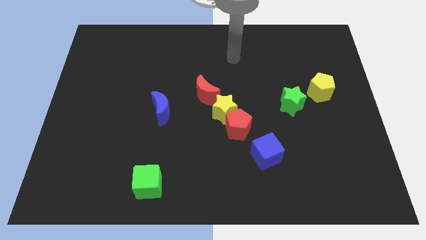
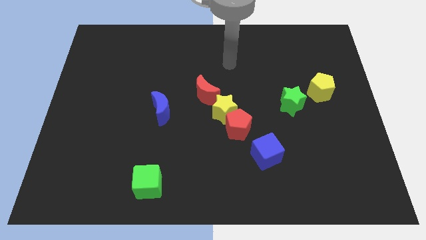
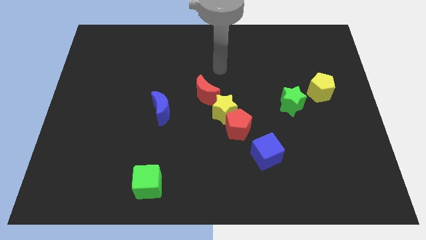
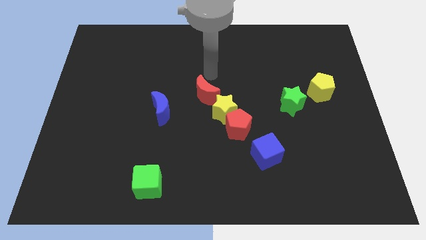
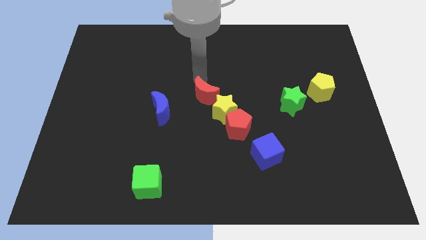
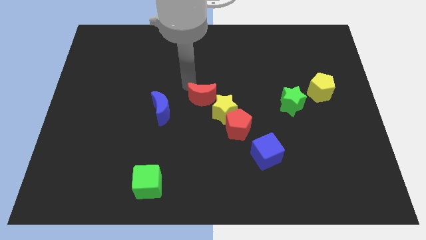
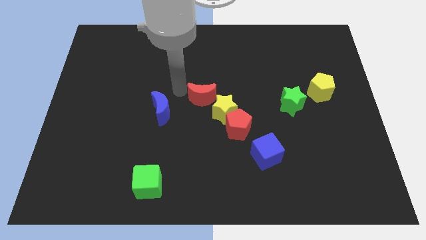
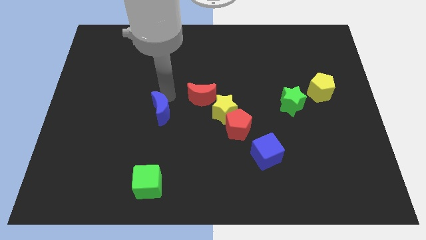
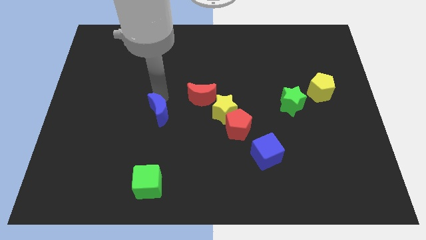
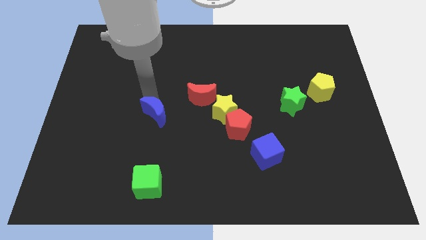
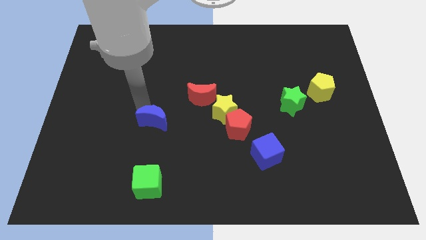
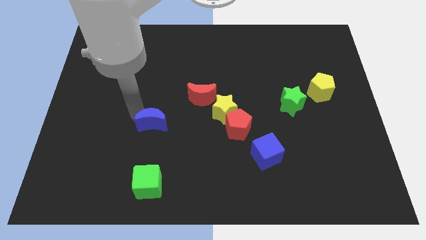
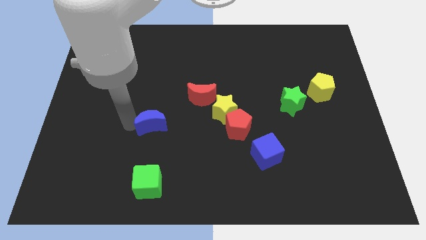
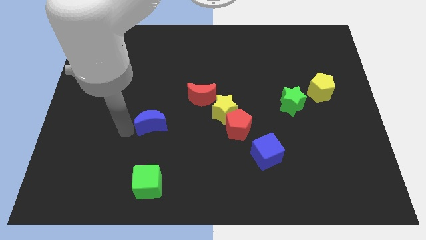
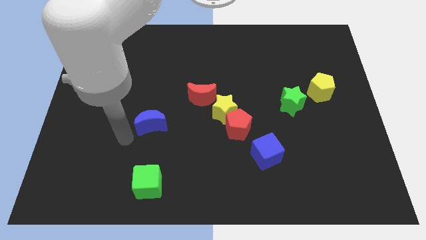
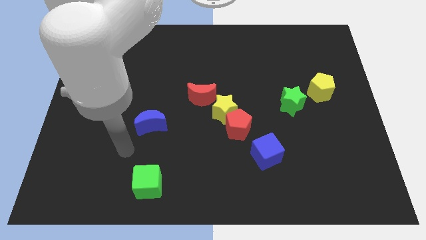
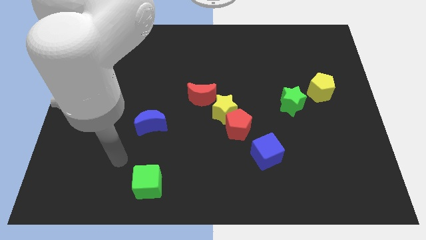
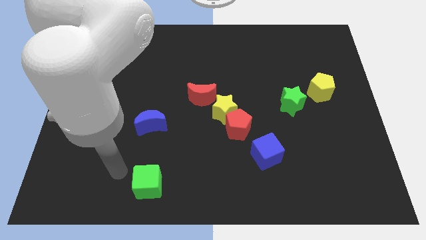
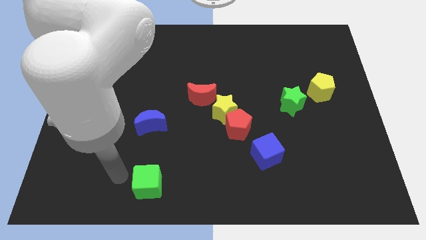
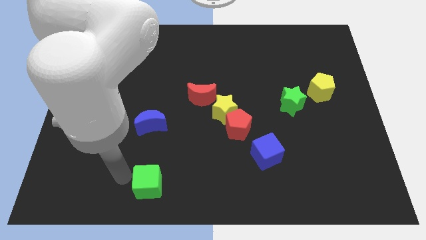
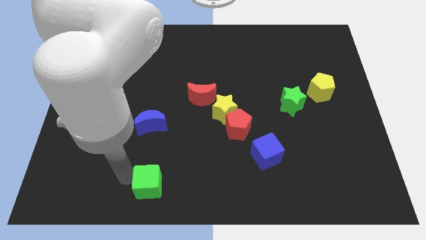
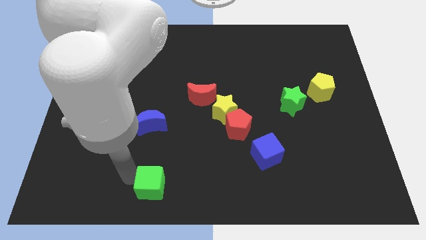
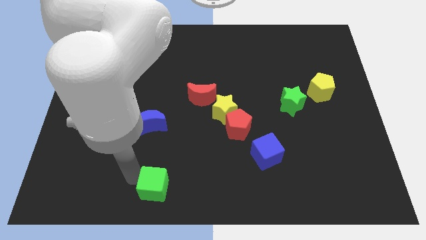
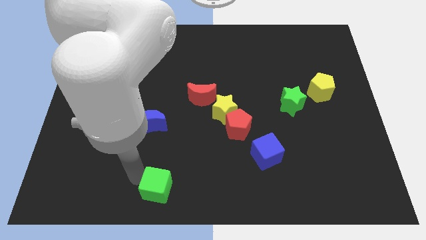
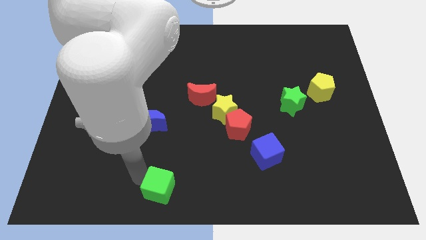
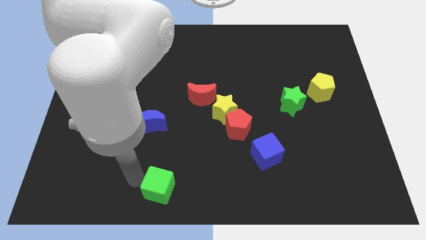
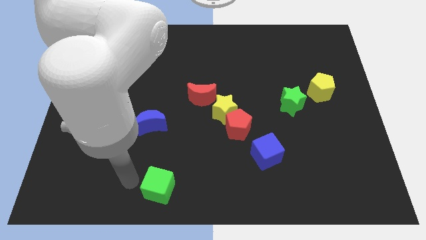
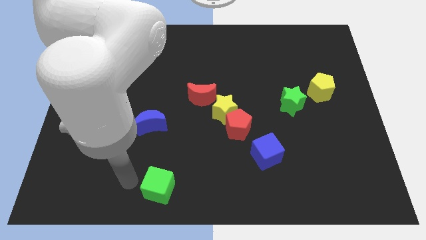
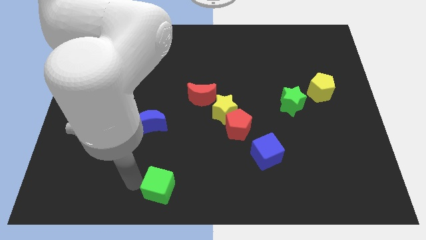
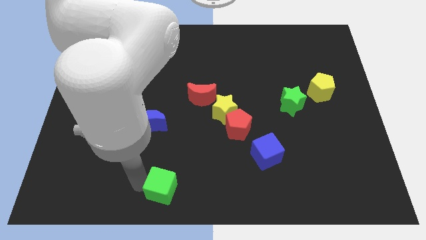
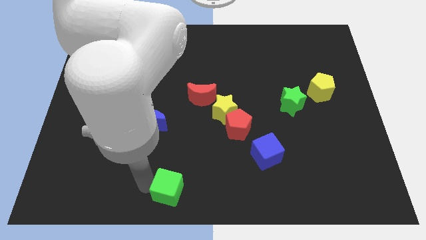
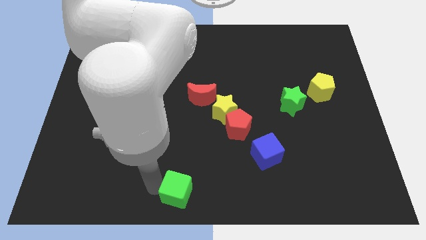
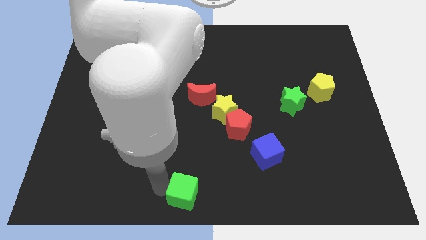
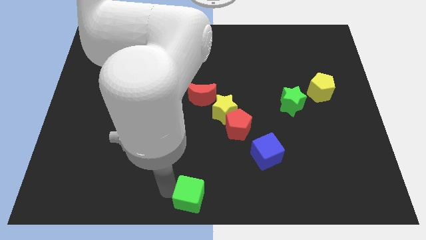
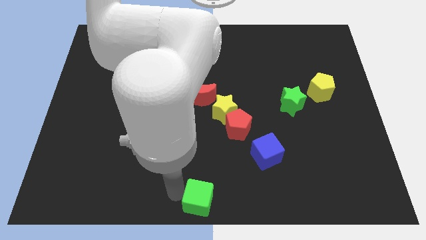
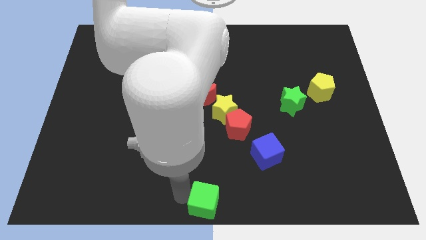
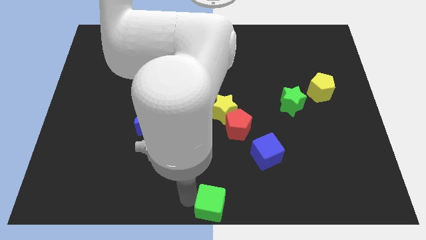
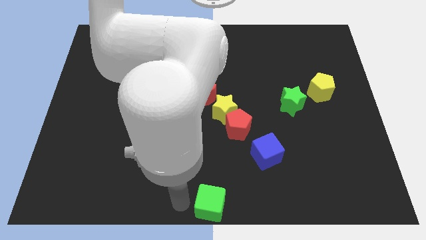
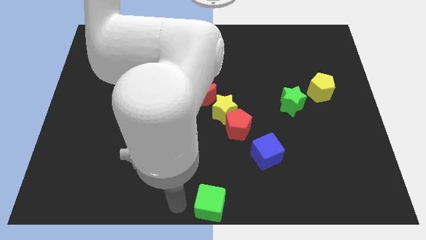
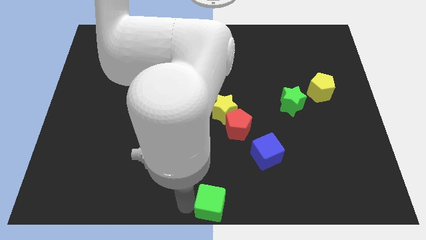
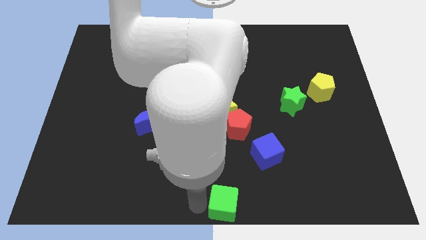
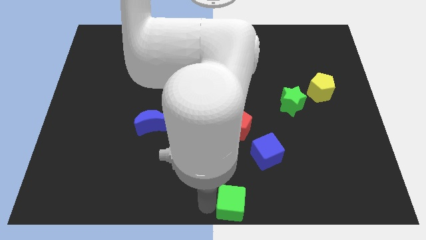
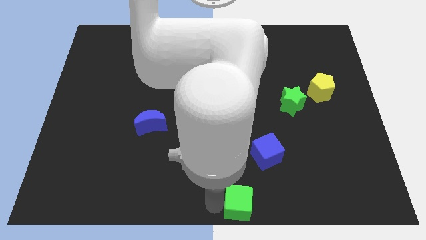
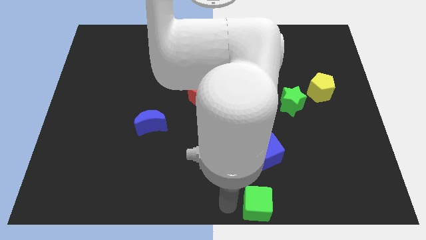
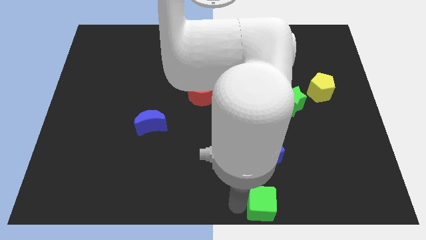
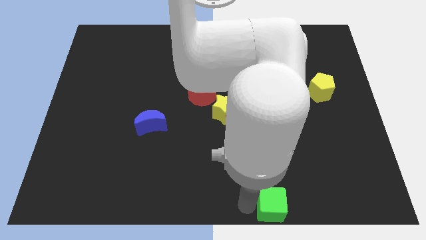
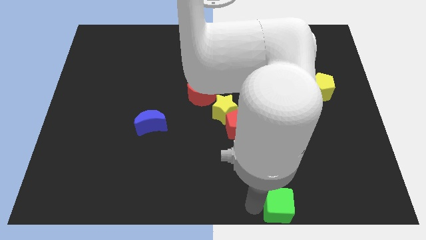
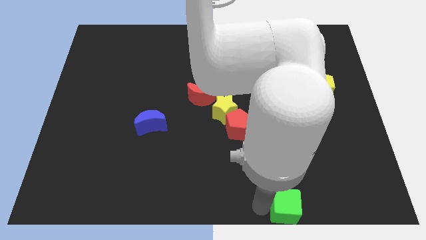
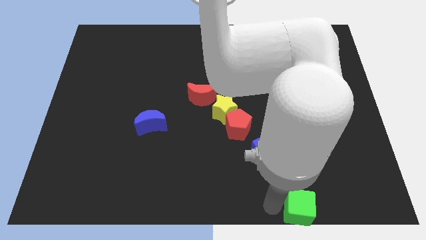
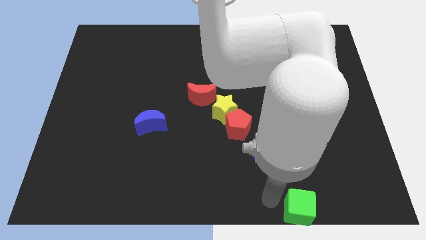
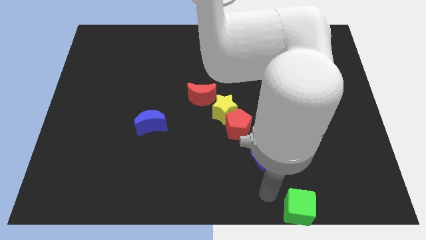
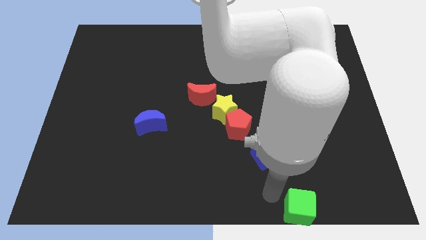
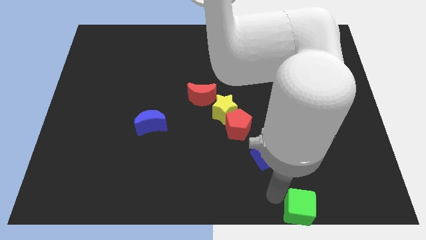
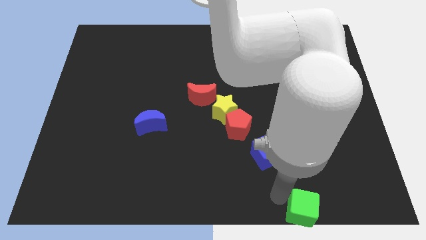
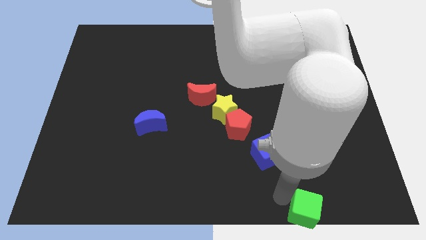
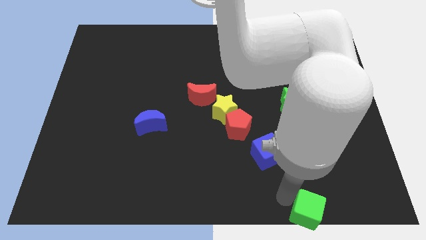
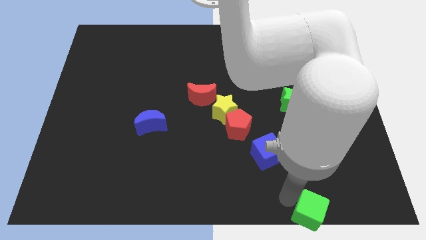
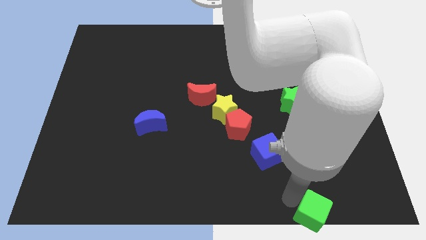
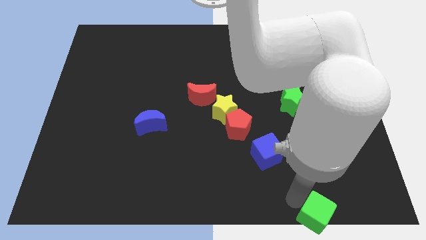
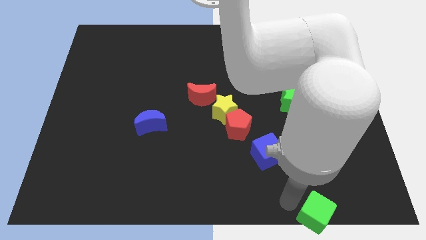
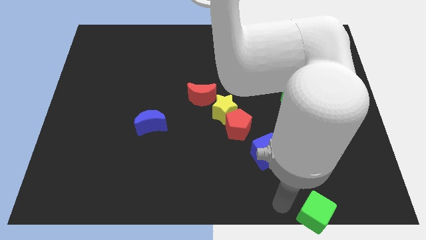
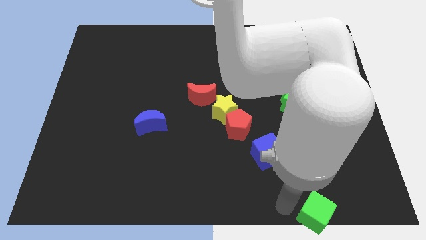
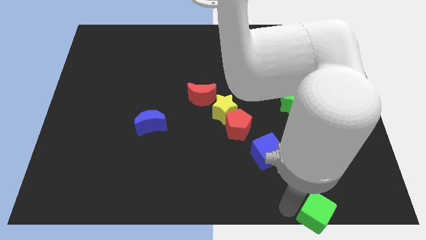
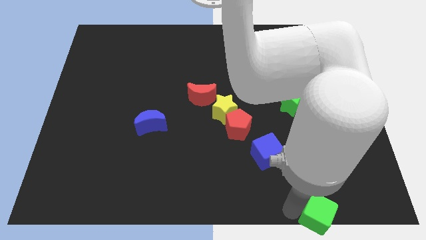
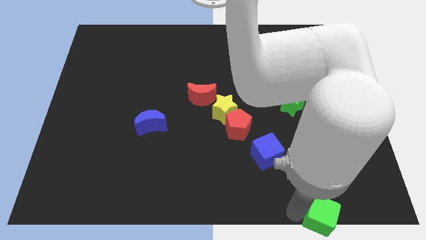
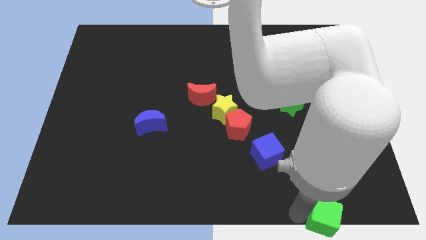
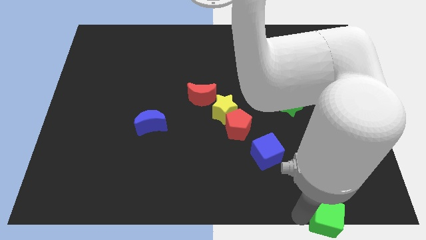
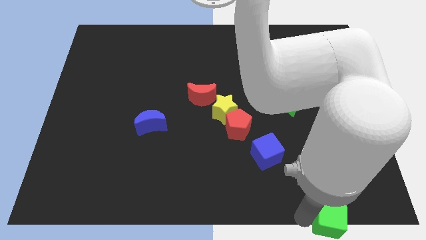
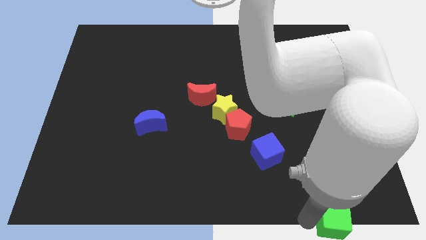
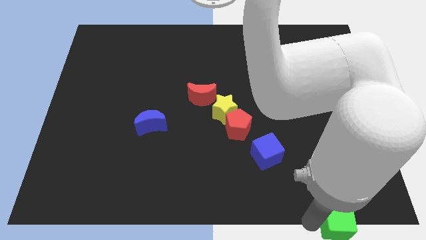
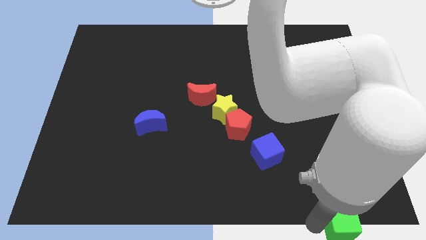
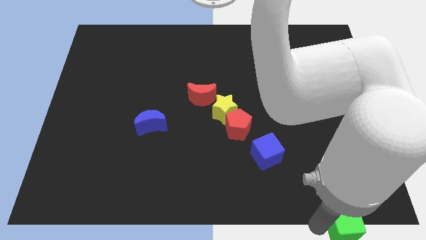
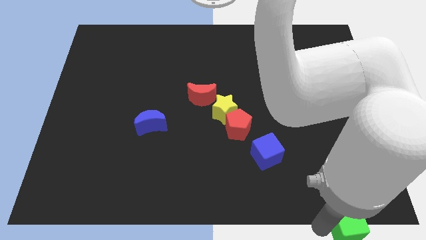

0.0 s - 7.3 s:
push the green cube to the bottom right of the board

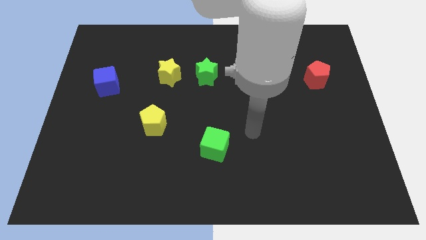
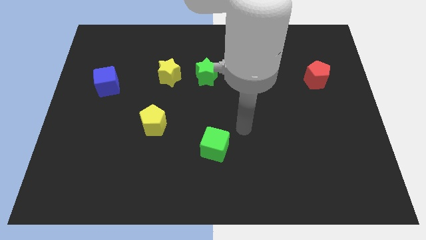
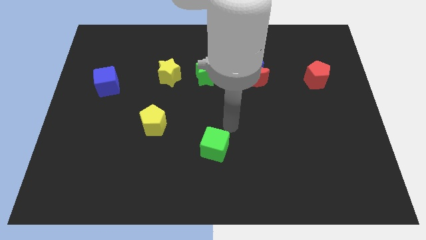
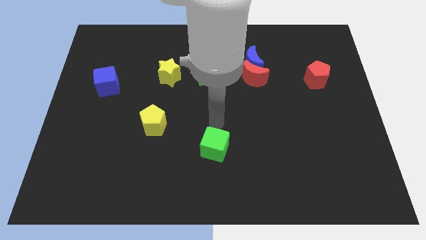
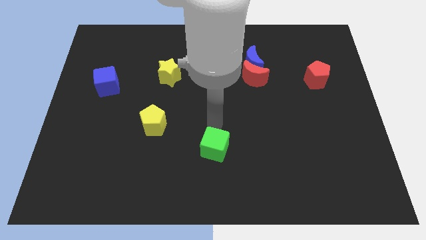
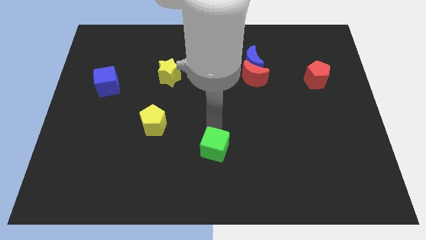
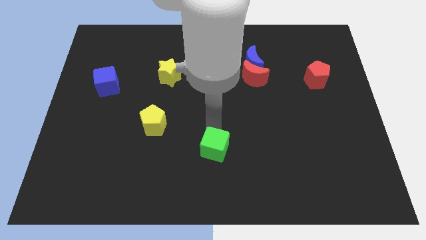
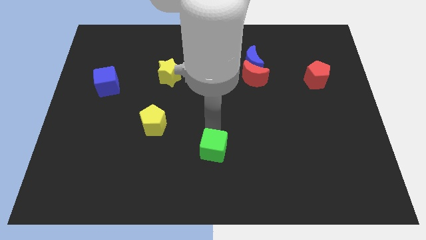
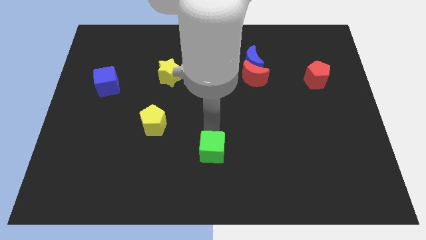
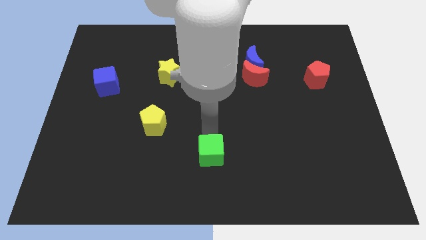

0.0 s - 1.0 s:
push the green cube to the bottom side
